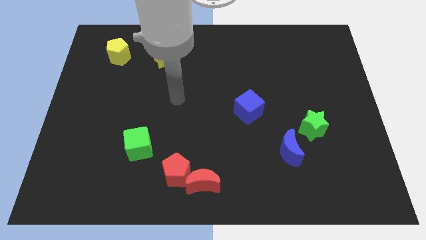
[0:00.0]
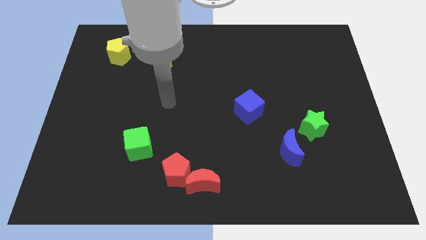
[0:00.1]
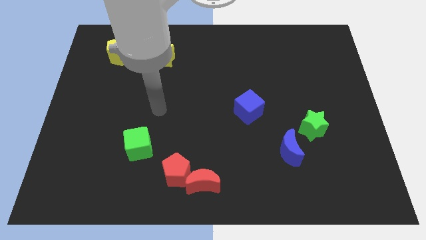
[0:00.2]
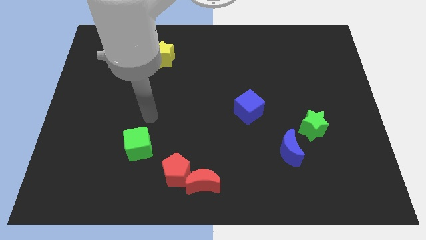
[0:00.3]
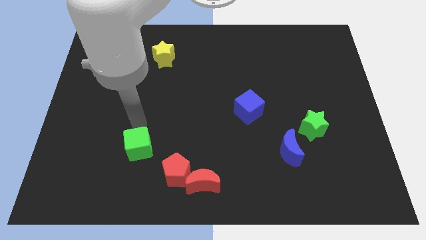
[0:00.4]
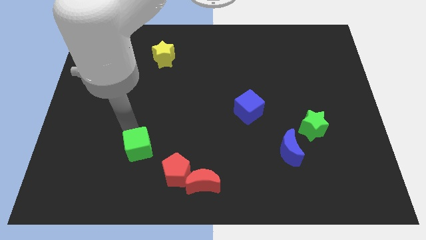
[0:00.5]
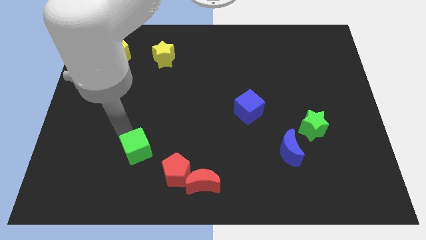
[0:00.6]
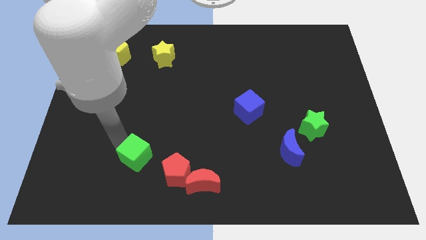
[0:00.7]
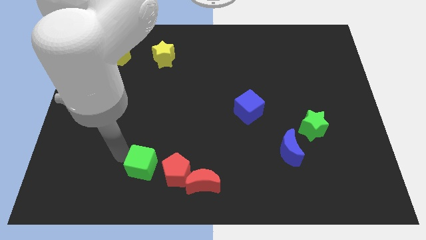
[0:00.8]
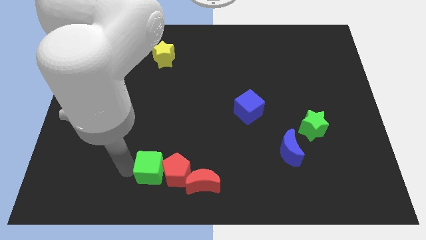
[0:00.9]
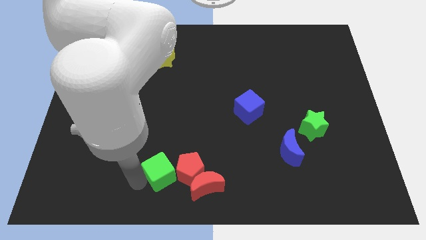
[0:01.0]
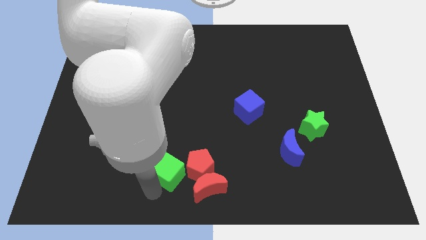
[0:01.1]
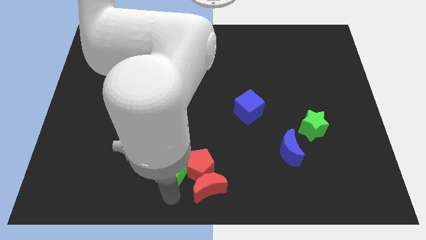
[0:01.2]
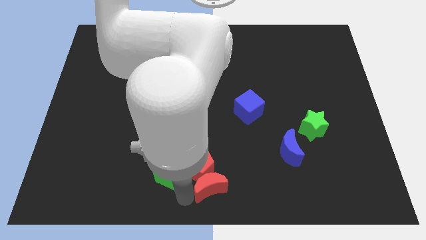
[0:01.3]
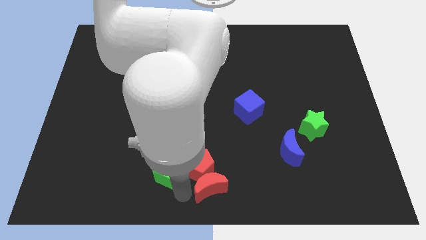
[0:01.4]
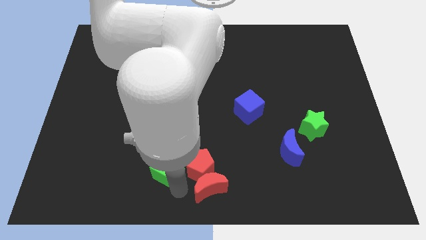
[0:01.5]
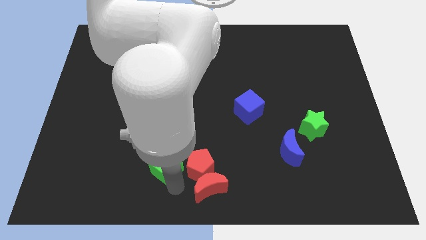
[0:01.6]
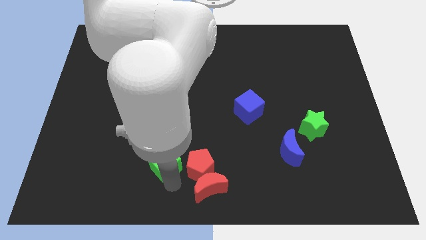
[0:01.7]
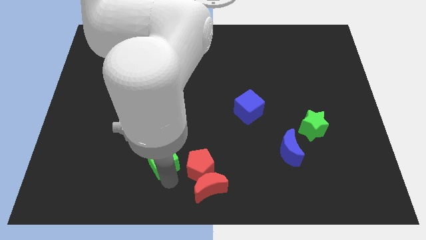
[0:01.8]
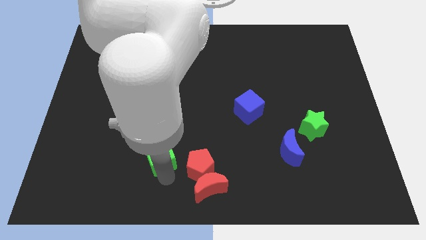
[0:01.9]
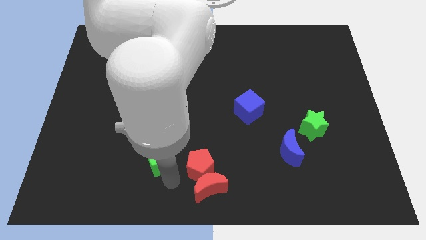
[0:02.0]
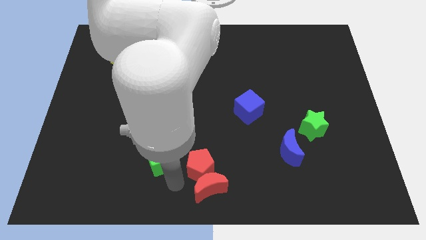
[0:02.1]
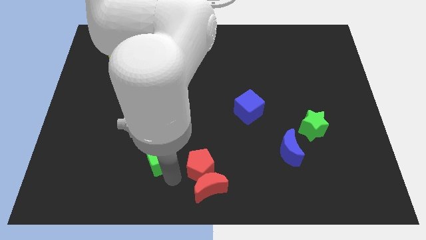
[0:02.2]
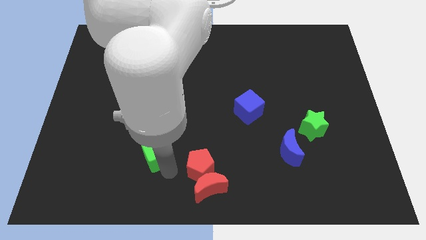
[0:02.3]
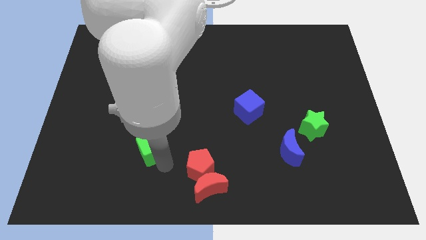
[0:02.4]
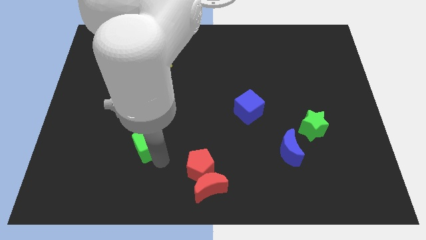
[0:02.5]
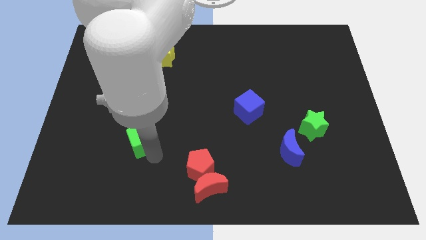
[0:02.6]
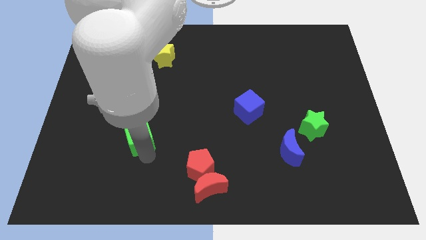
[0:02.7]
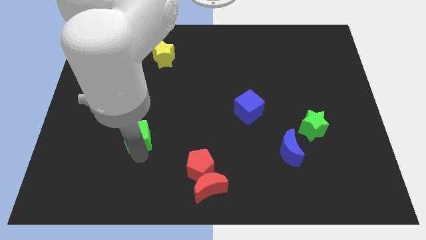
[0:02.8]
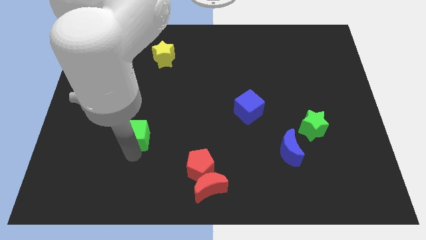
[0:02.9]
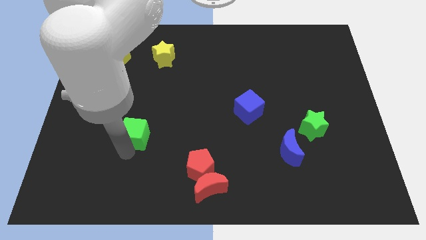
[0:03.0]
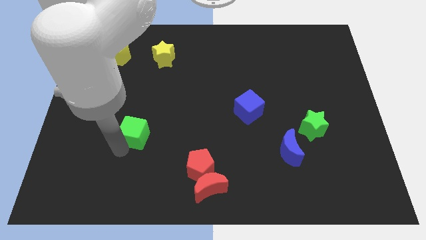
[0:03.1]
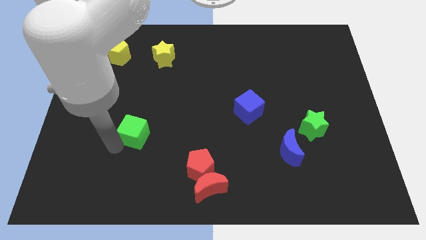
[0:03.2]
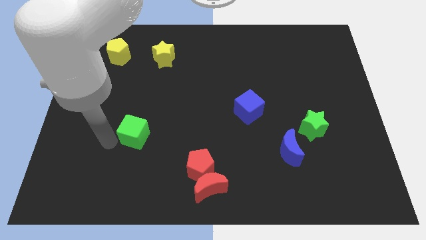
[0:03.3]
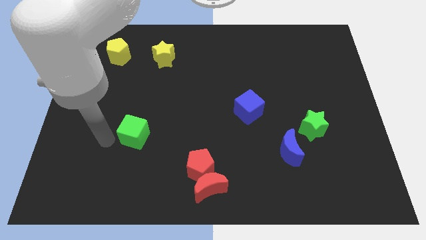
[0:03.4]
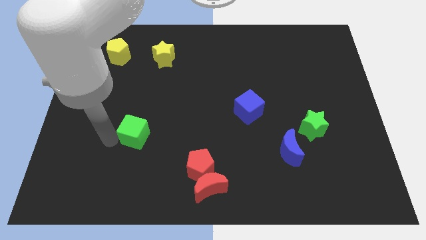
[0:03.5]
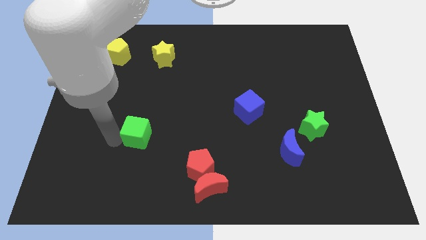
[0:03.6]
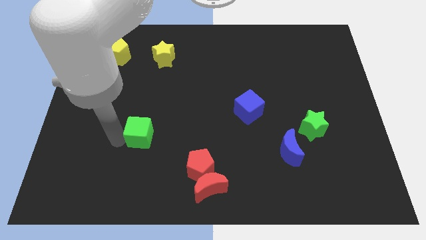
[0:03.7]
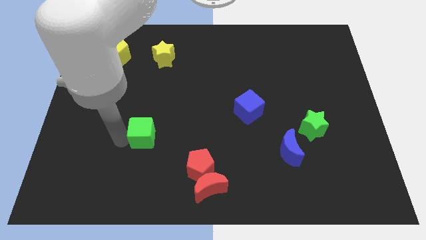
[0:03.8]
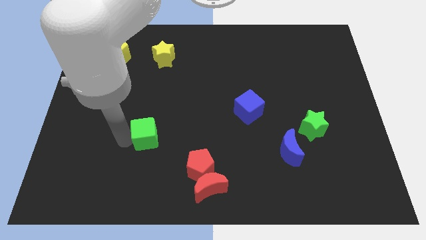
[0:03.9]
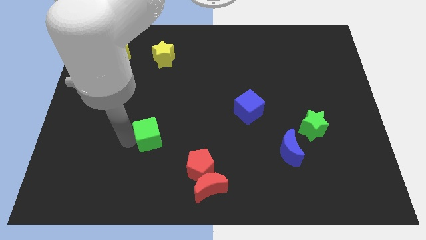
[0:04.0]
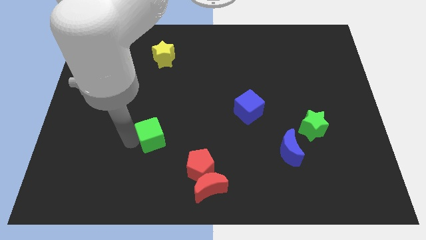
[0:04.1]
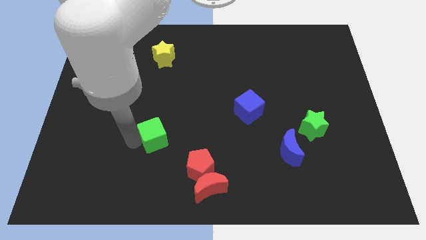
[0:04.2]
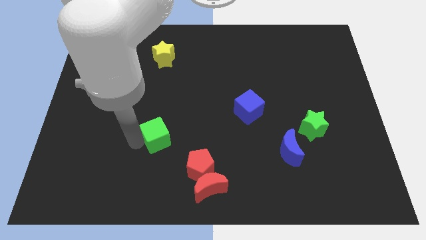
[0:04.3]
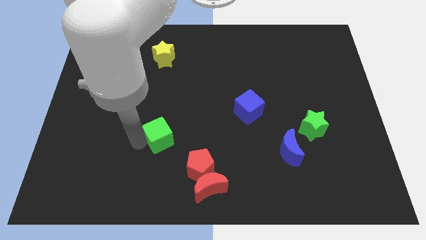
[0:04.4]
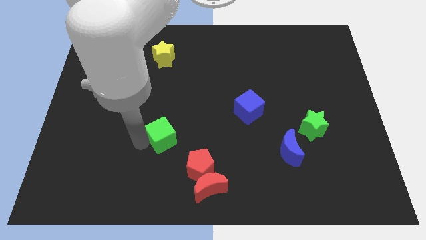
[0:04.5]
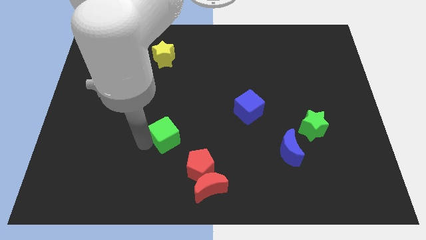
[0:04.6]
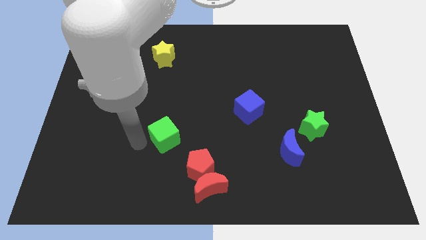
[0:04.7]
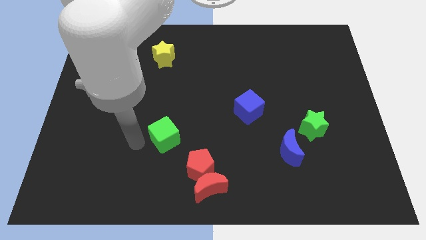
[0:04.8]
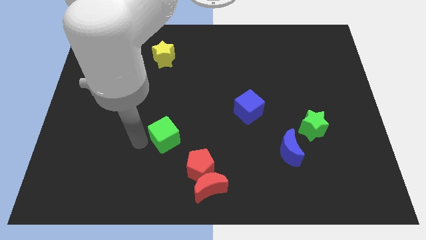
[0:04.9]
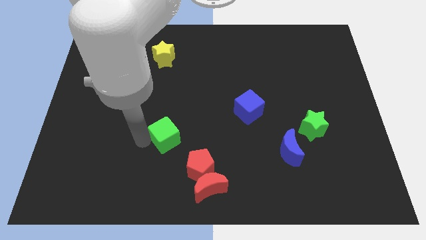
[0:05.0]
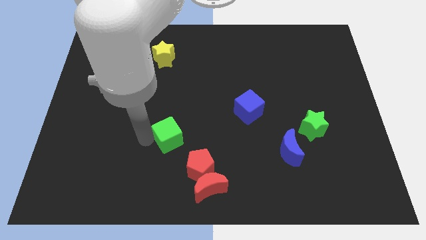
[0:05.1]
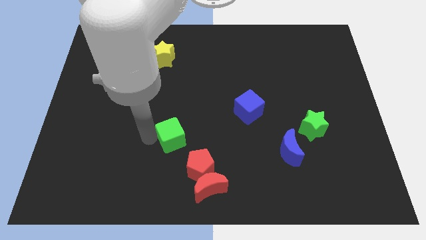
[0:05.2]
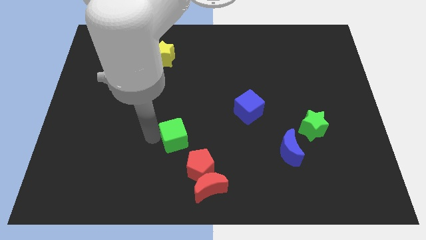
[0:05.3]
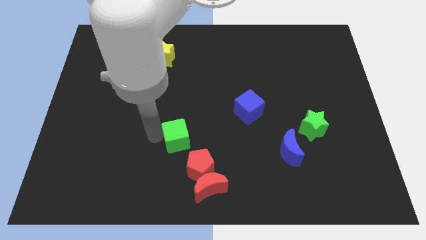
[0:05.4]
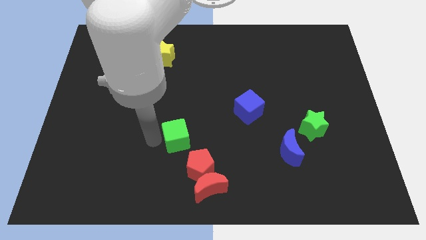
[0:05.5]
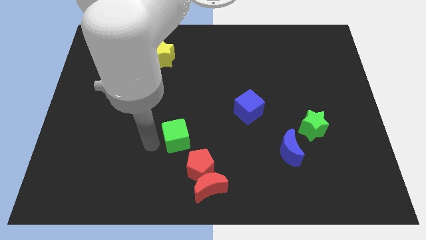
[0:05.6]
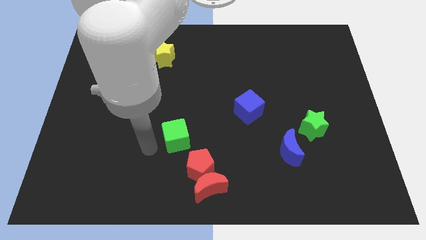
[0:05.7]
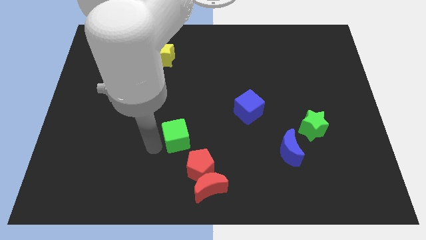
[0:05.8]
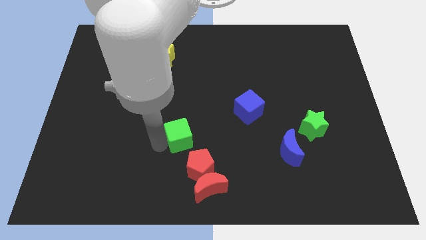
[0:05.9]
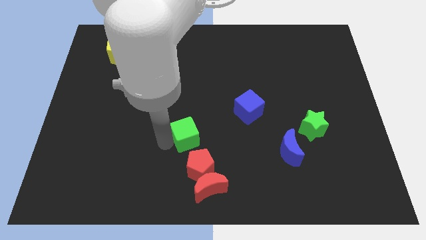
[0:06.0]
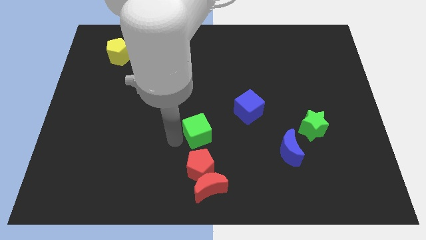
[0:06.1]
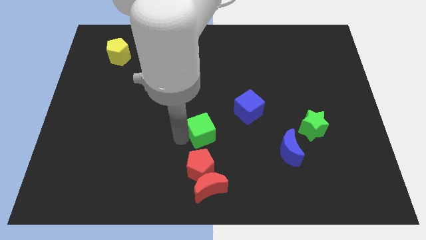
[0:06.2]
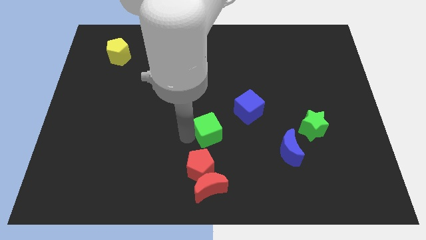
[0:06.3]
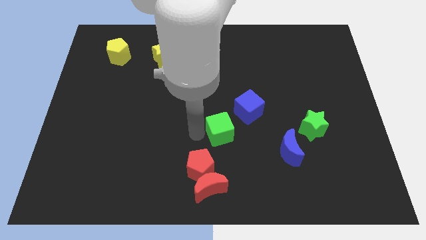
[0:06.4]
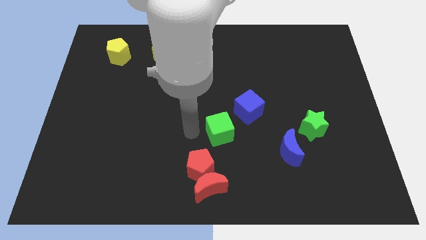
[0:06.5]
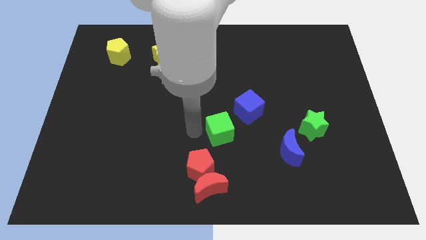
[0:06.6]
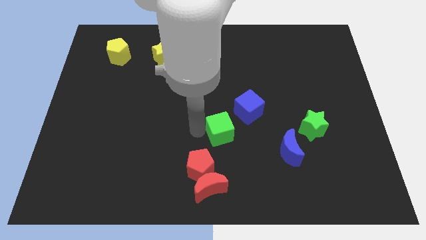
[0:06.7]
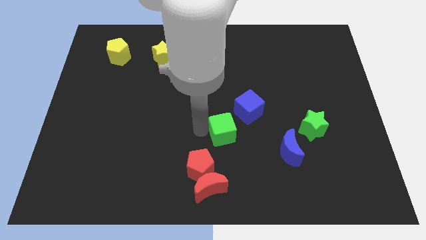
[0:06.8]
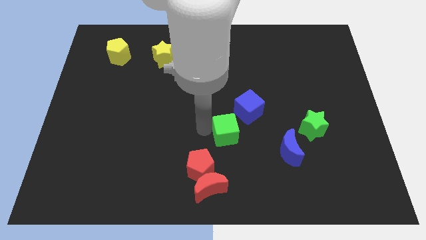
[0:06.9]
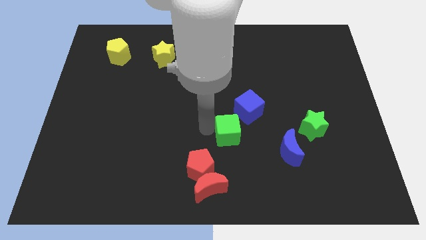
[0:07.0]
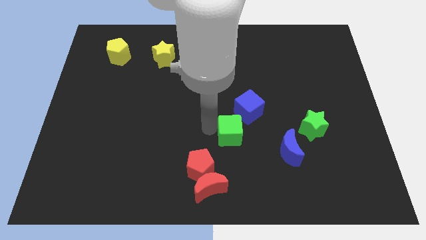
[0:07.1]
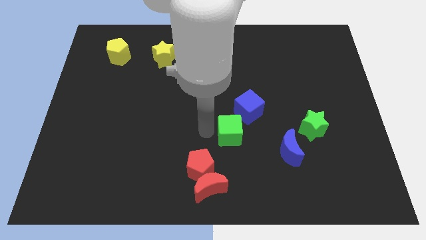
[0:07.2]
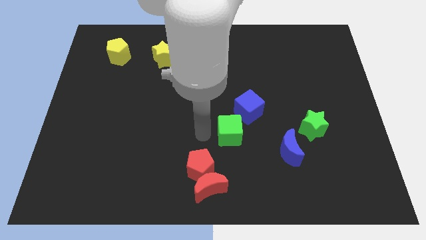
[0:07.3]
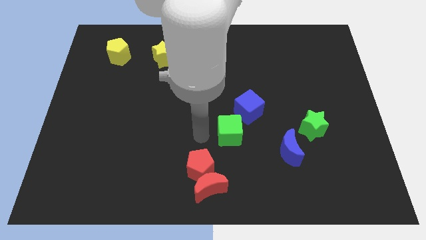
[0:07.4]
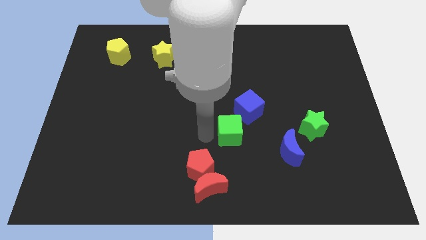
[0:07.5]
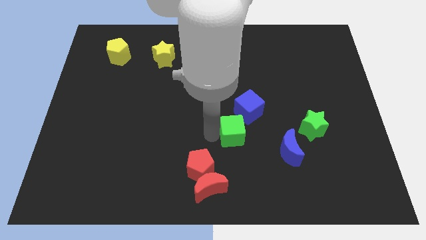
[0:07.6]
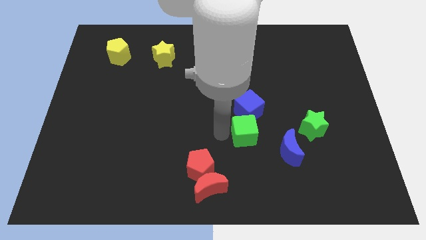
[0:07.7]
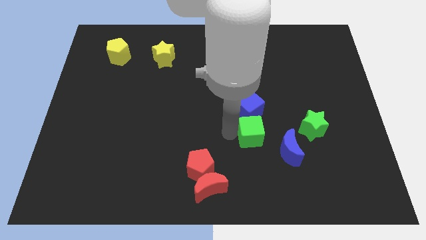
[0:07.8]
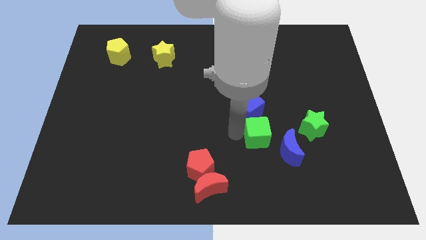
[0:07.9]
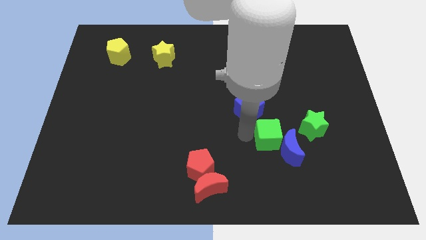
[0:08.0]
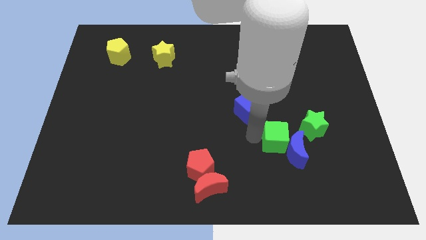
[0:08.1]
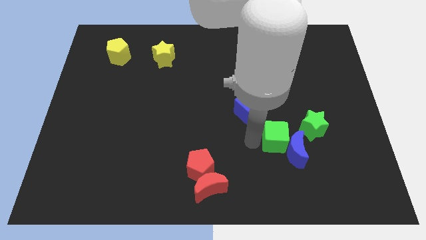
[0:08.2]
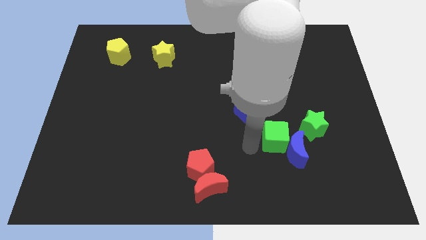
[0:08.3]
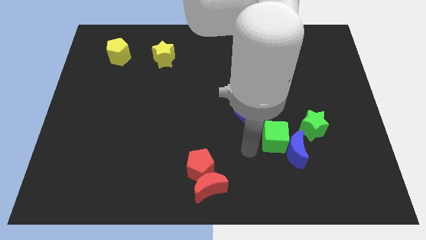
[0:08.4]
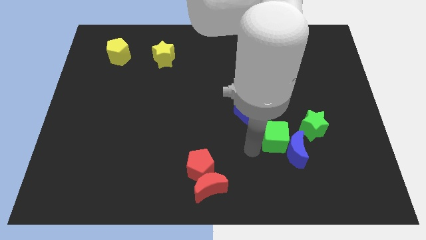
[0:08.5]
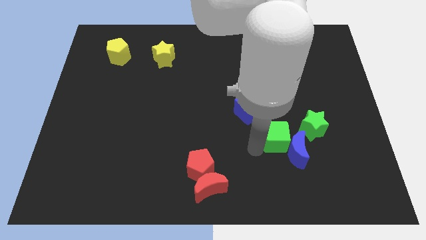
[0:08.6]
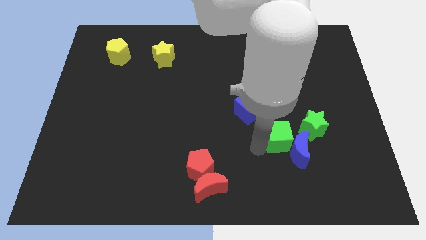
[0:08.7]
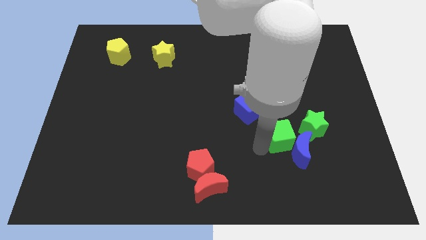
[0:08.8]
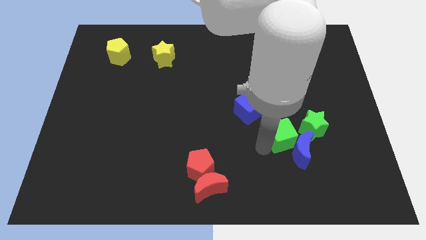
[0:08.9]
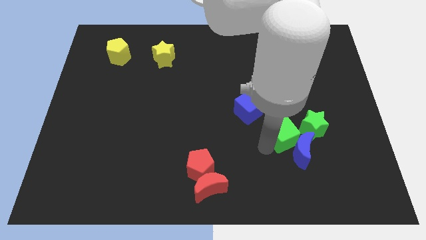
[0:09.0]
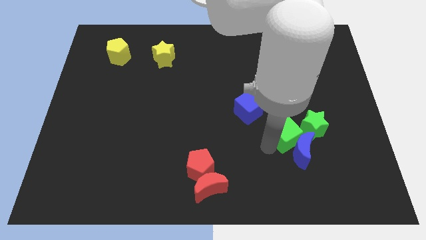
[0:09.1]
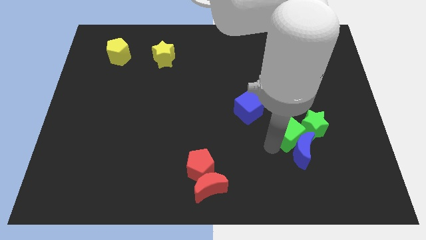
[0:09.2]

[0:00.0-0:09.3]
slide the green cube to the green star
